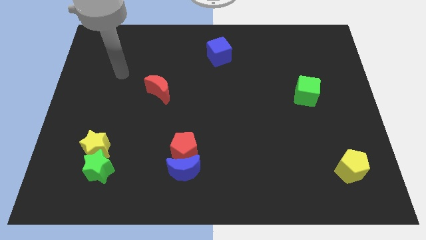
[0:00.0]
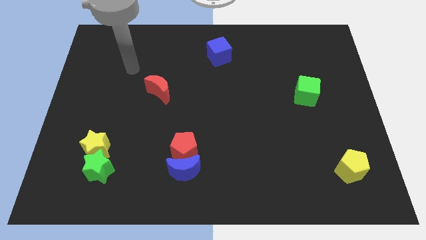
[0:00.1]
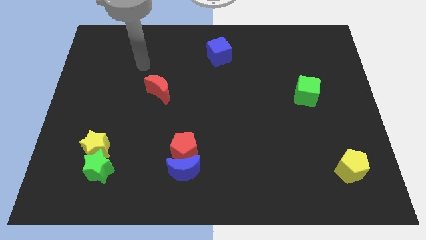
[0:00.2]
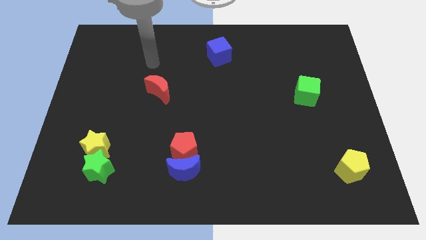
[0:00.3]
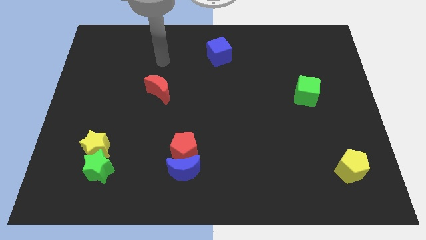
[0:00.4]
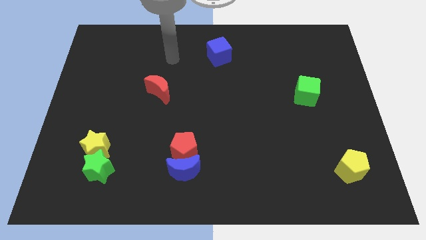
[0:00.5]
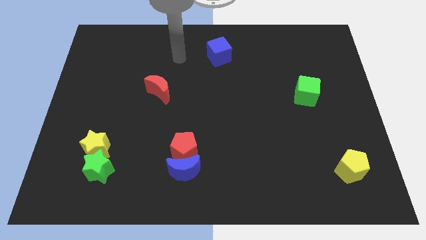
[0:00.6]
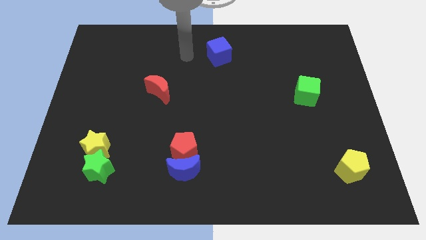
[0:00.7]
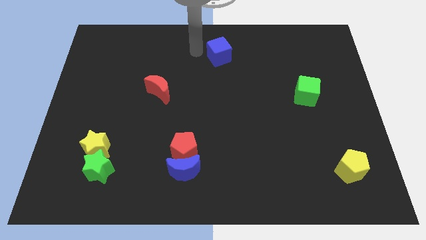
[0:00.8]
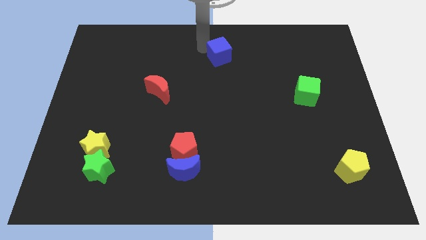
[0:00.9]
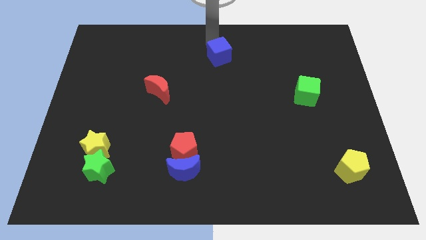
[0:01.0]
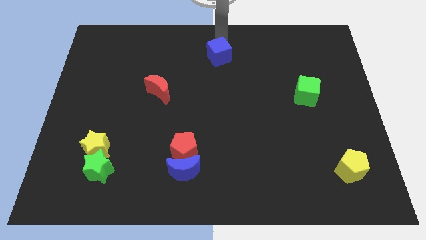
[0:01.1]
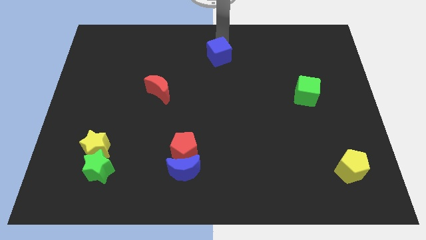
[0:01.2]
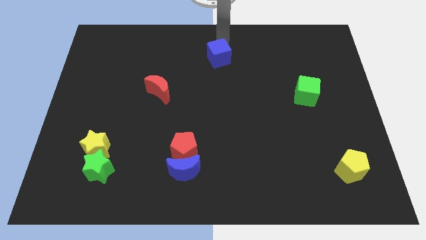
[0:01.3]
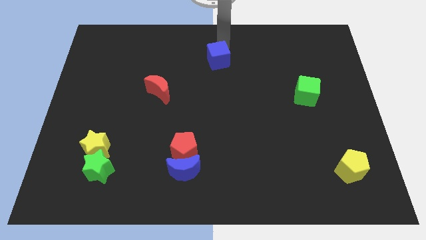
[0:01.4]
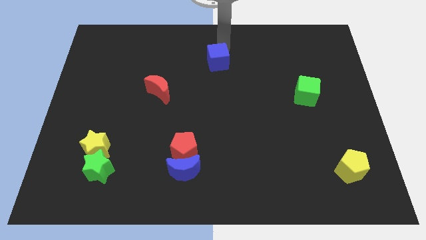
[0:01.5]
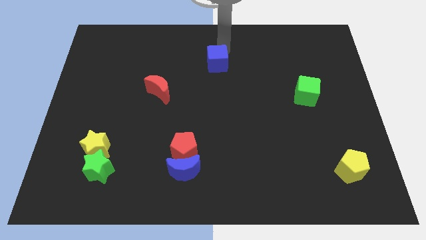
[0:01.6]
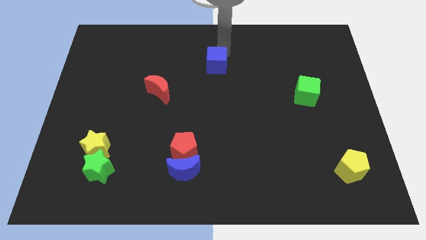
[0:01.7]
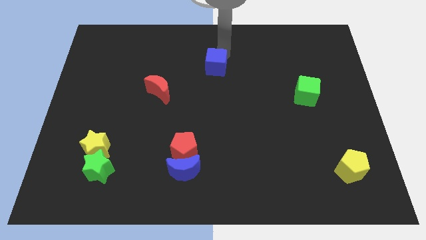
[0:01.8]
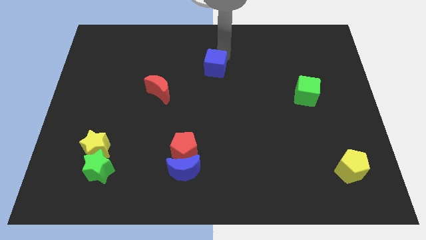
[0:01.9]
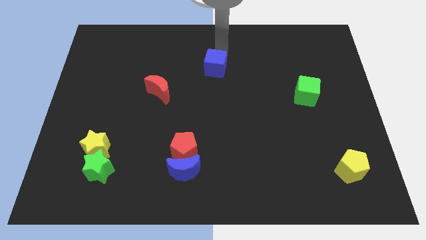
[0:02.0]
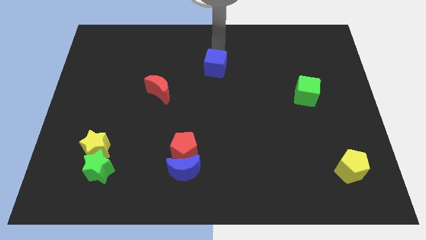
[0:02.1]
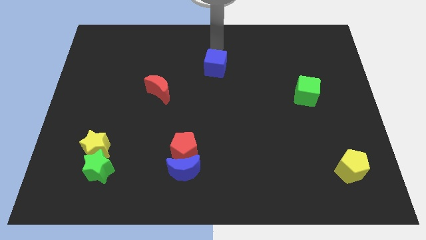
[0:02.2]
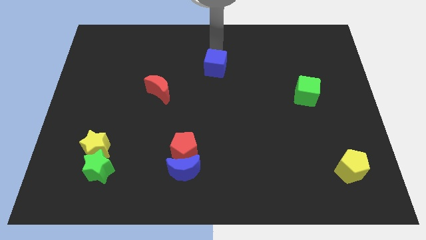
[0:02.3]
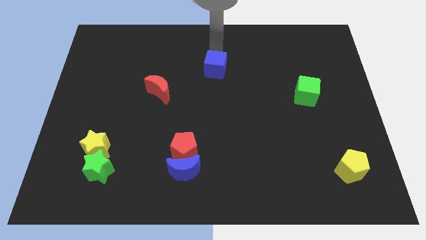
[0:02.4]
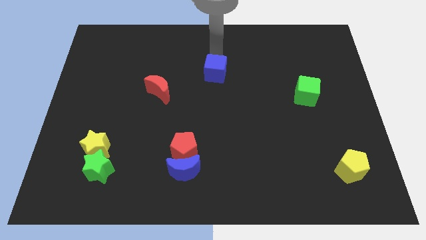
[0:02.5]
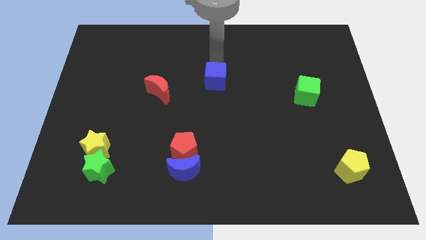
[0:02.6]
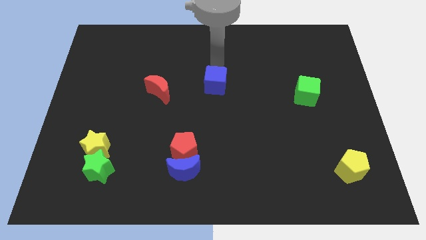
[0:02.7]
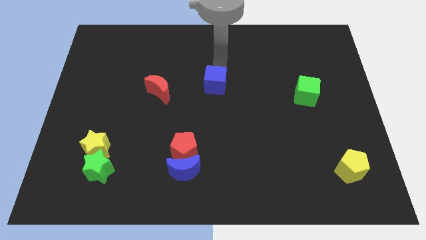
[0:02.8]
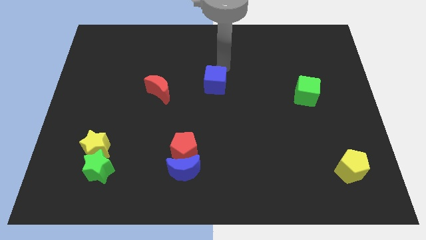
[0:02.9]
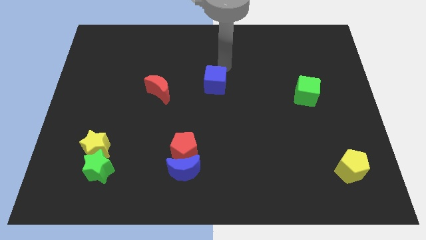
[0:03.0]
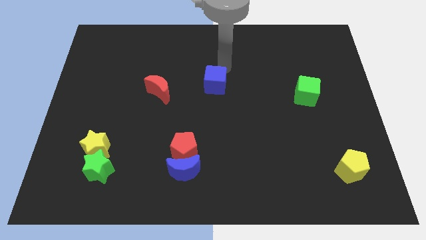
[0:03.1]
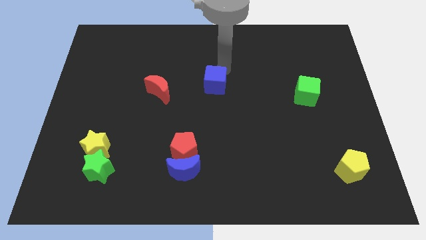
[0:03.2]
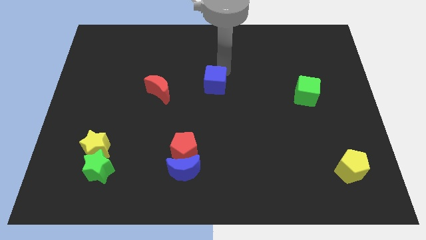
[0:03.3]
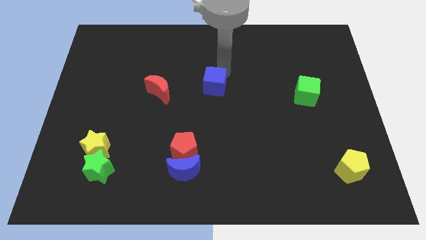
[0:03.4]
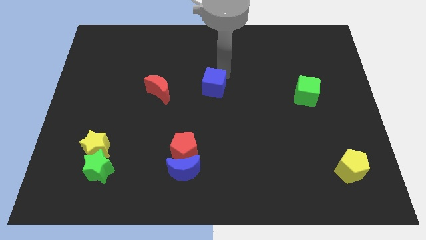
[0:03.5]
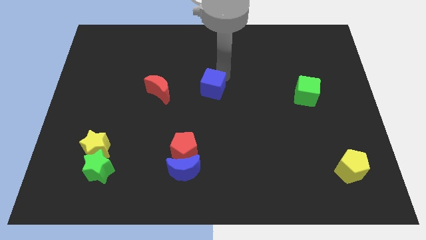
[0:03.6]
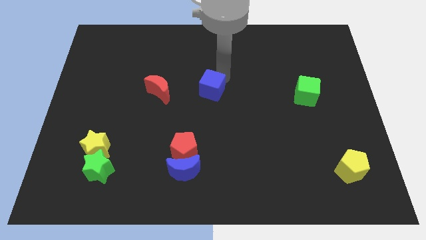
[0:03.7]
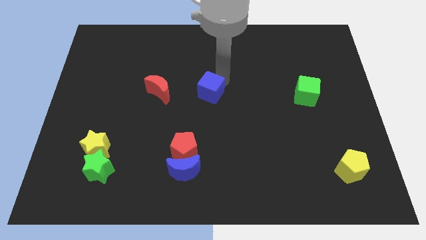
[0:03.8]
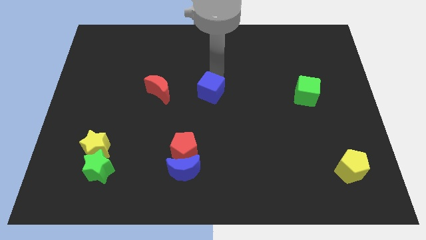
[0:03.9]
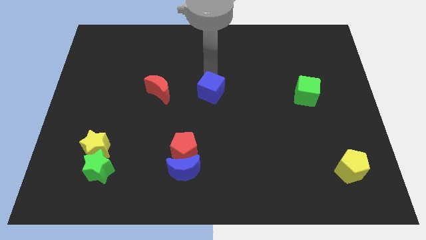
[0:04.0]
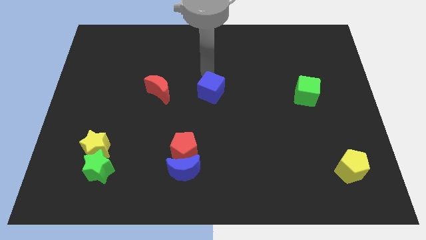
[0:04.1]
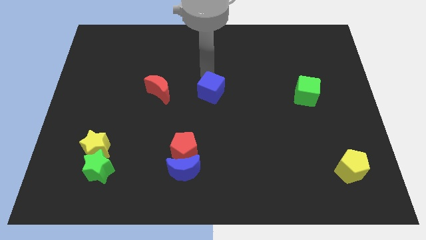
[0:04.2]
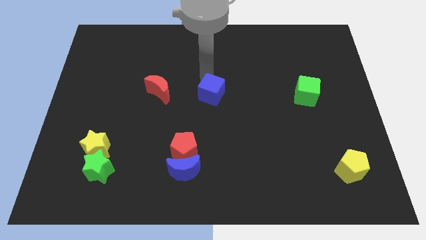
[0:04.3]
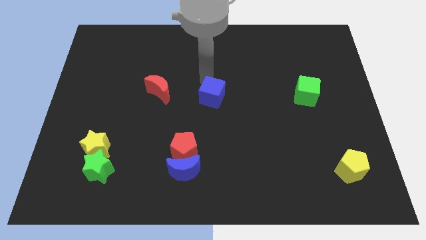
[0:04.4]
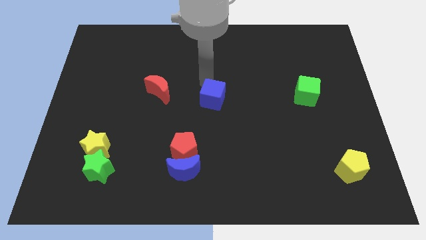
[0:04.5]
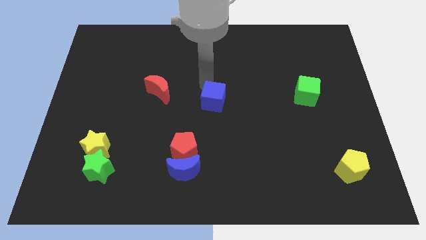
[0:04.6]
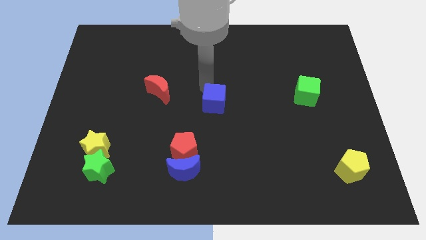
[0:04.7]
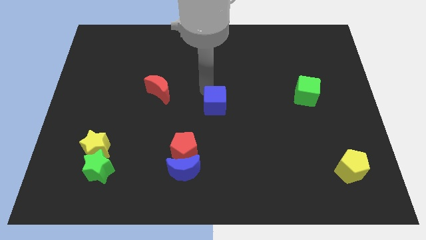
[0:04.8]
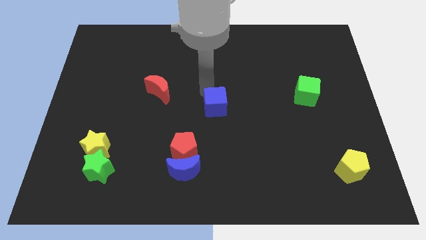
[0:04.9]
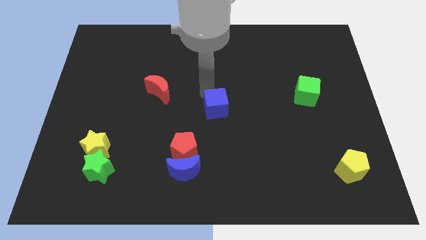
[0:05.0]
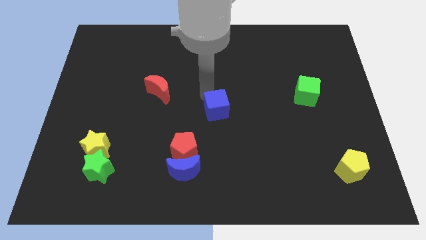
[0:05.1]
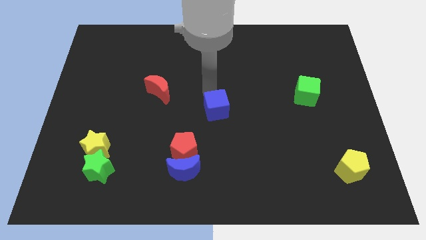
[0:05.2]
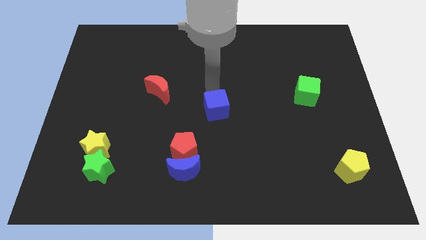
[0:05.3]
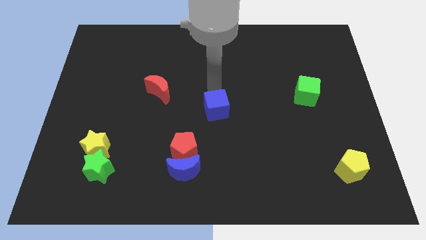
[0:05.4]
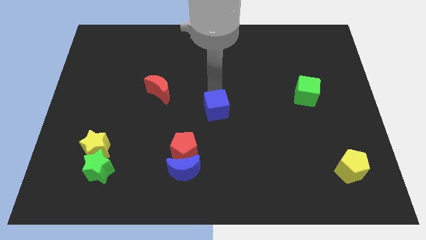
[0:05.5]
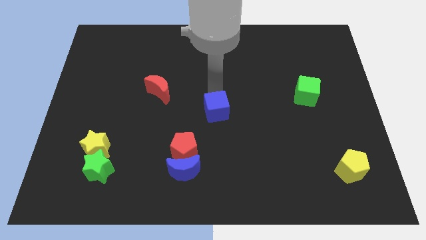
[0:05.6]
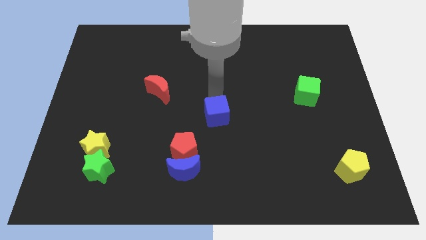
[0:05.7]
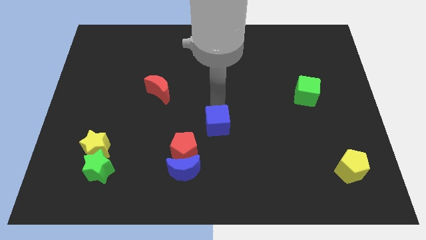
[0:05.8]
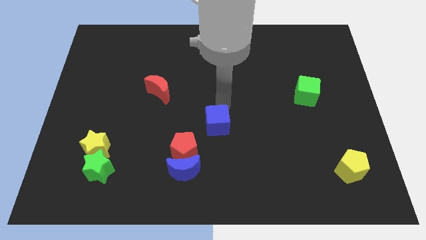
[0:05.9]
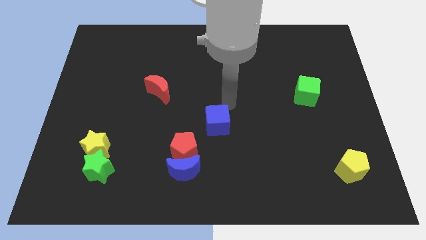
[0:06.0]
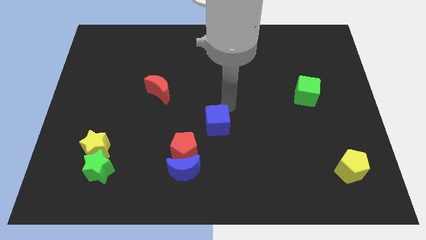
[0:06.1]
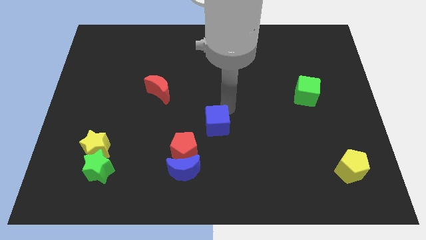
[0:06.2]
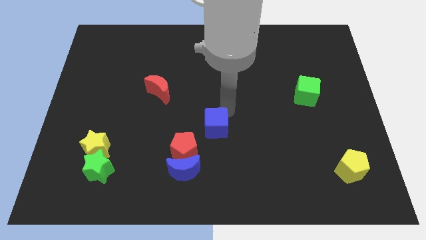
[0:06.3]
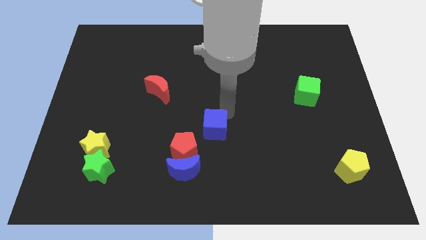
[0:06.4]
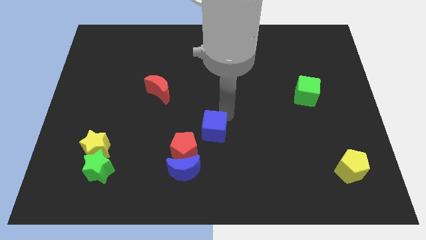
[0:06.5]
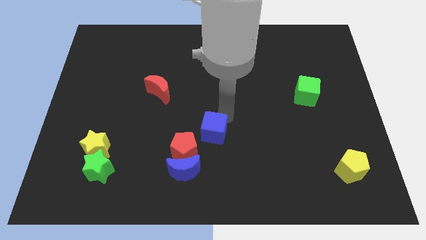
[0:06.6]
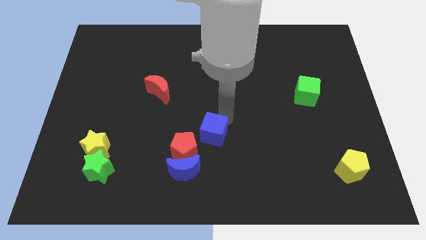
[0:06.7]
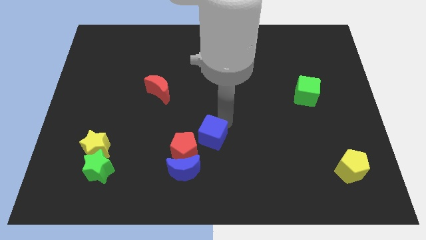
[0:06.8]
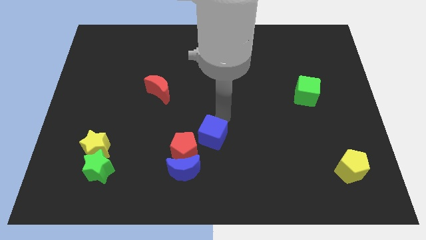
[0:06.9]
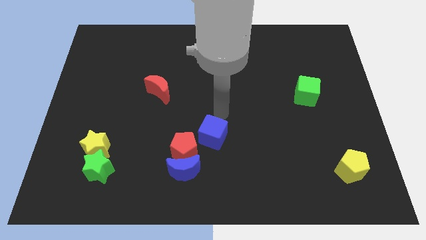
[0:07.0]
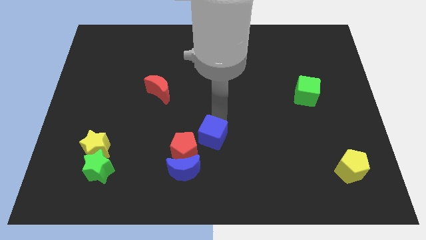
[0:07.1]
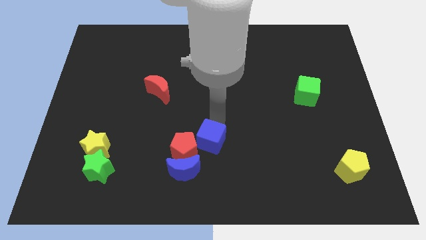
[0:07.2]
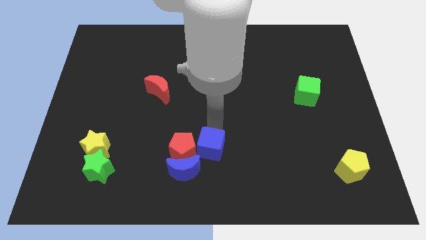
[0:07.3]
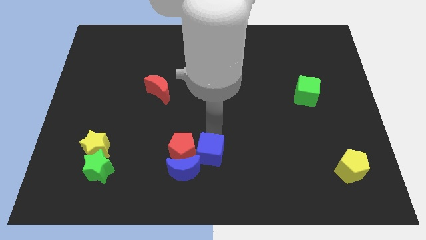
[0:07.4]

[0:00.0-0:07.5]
push the blue cube to the bottom
